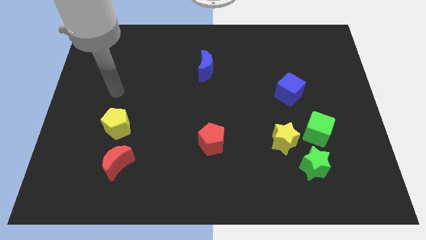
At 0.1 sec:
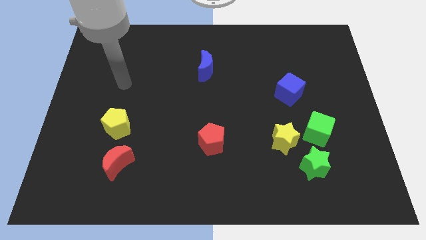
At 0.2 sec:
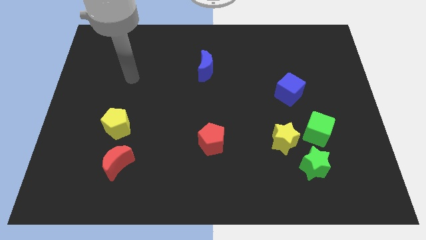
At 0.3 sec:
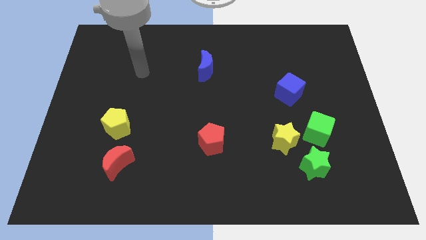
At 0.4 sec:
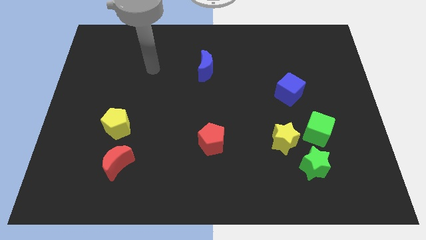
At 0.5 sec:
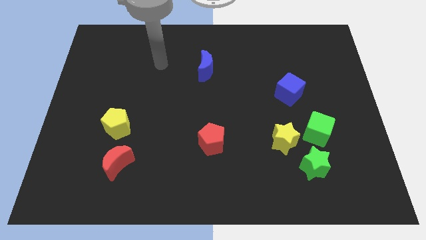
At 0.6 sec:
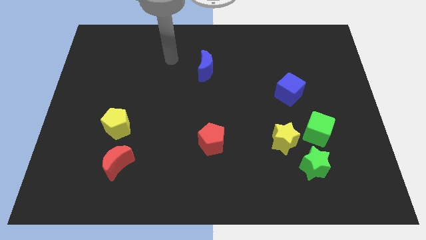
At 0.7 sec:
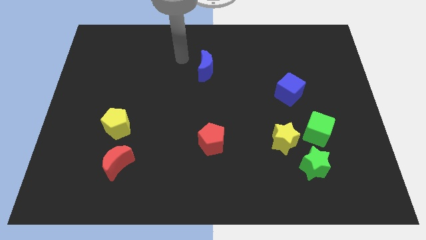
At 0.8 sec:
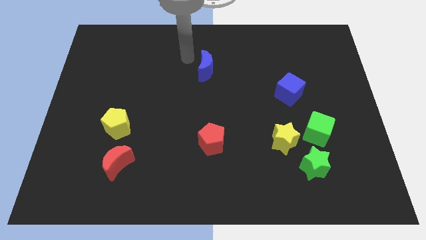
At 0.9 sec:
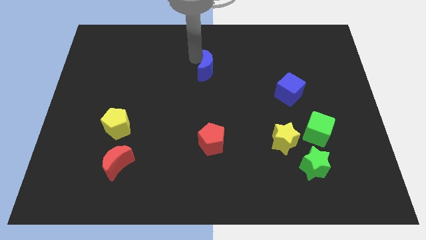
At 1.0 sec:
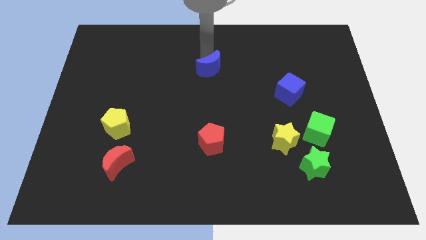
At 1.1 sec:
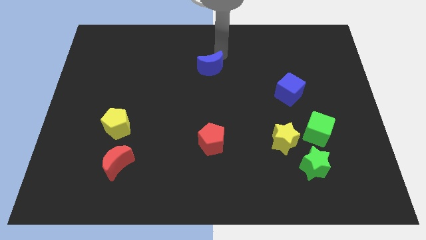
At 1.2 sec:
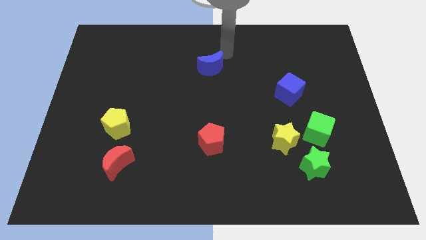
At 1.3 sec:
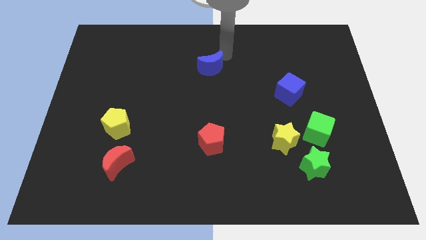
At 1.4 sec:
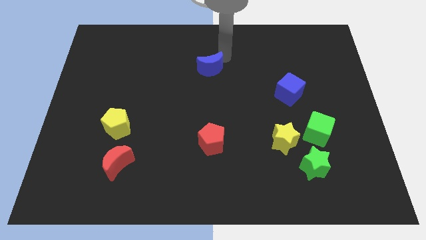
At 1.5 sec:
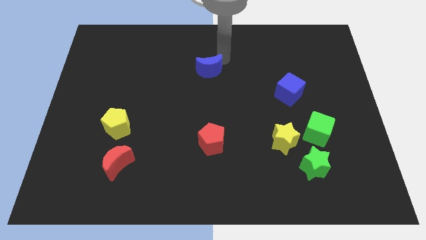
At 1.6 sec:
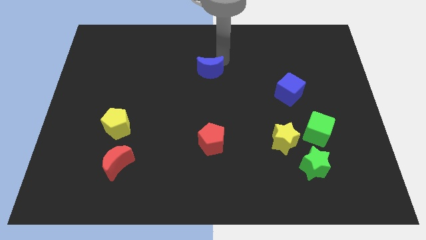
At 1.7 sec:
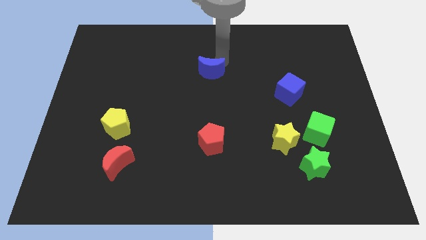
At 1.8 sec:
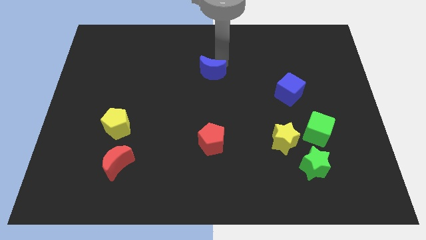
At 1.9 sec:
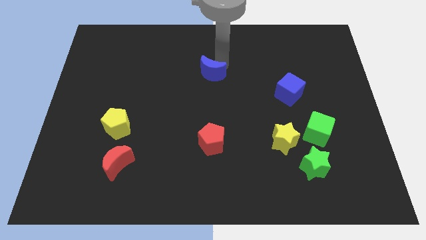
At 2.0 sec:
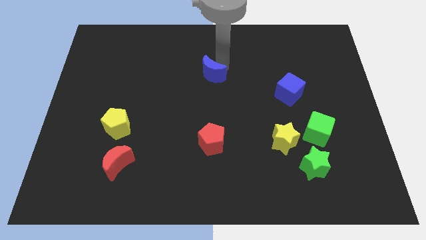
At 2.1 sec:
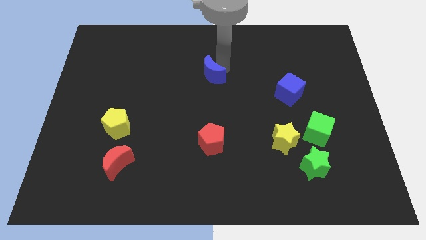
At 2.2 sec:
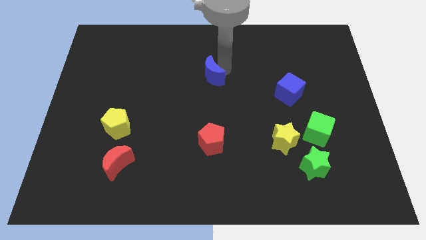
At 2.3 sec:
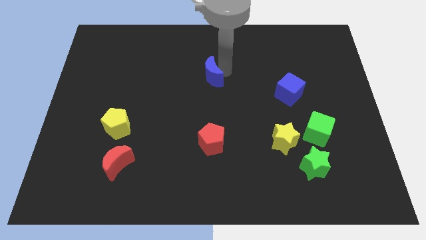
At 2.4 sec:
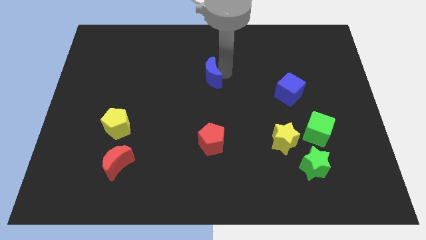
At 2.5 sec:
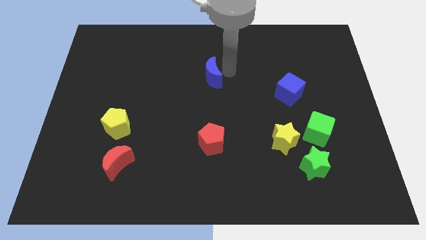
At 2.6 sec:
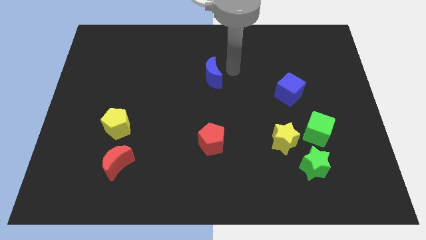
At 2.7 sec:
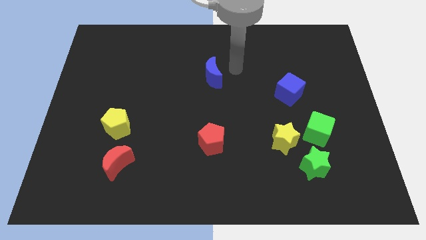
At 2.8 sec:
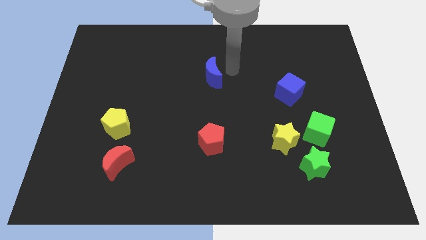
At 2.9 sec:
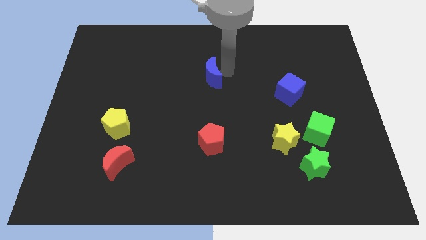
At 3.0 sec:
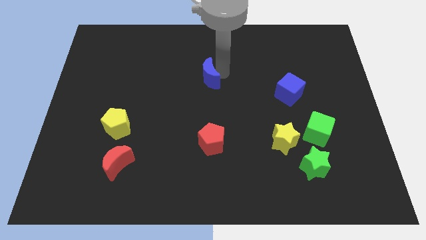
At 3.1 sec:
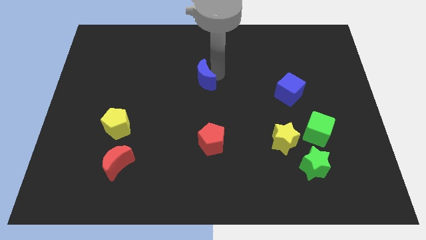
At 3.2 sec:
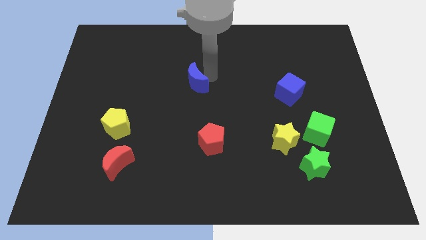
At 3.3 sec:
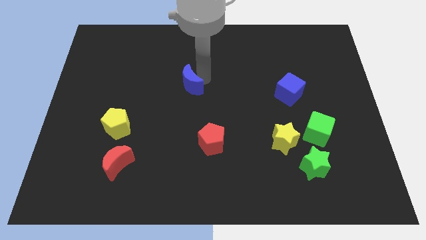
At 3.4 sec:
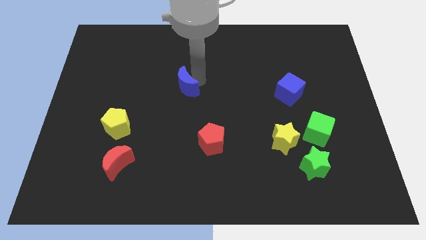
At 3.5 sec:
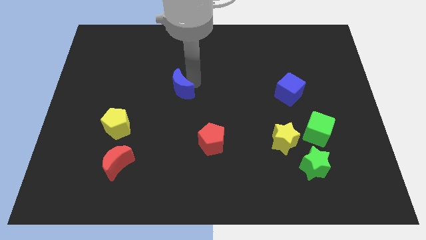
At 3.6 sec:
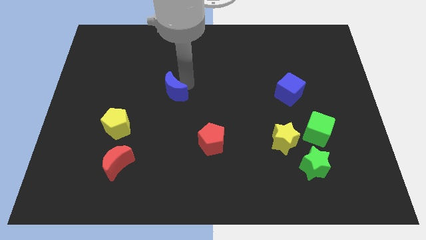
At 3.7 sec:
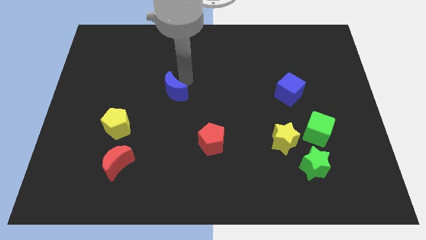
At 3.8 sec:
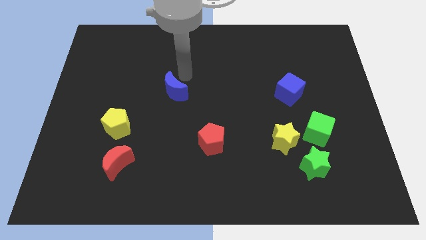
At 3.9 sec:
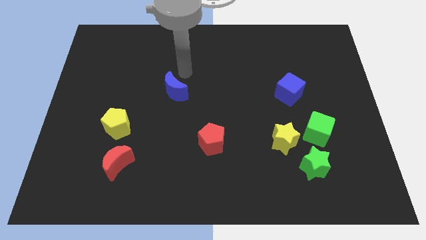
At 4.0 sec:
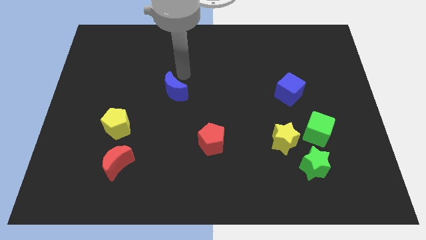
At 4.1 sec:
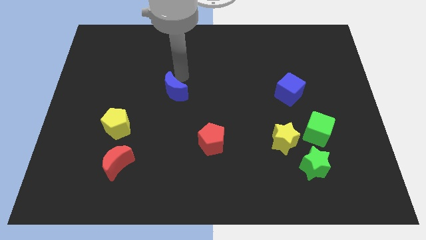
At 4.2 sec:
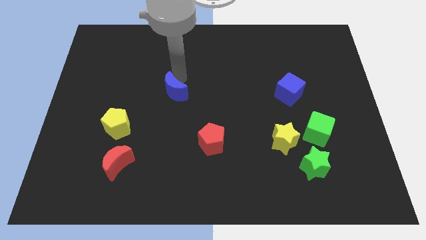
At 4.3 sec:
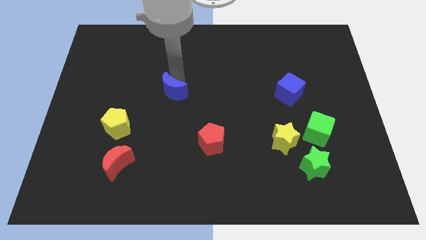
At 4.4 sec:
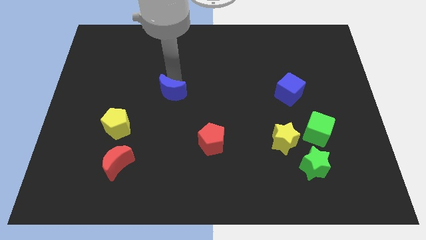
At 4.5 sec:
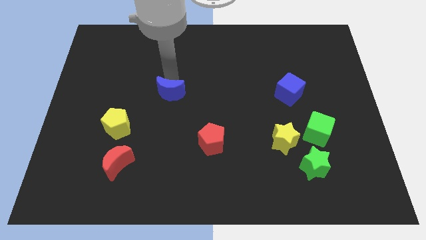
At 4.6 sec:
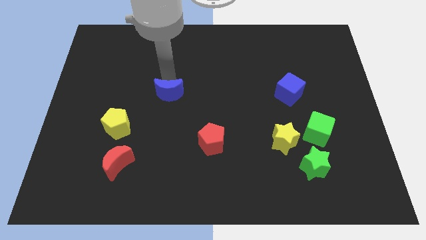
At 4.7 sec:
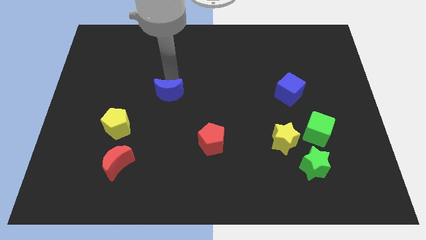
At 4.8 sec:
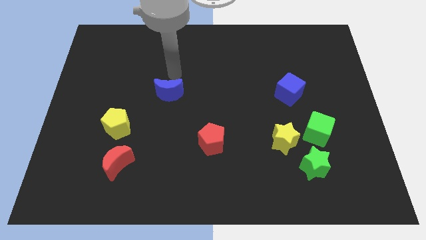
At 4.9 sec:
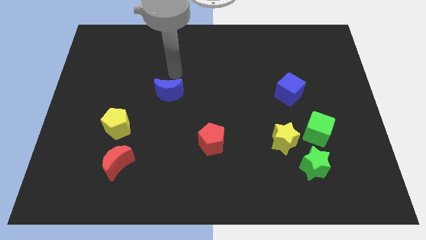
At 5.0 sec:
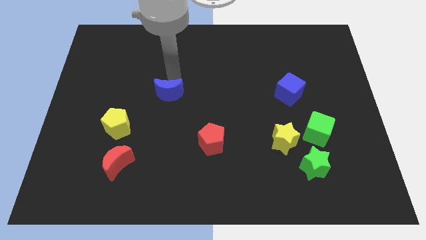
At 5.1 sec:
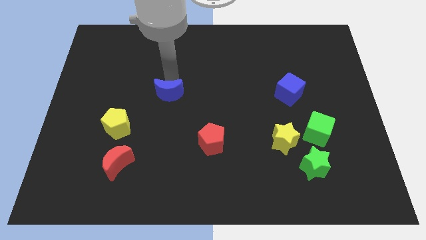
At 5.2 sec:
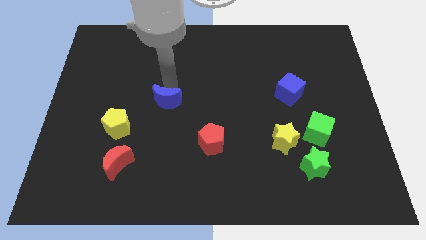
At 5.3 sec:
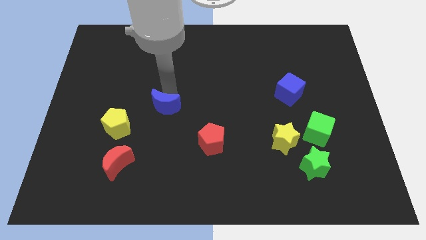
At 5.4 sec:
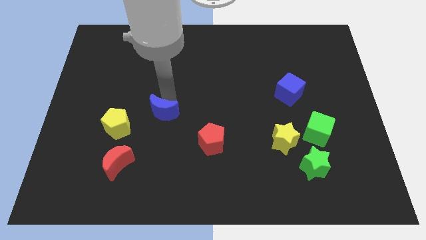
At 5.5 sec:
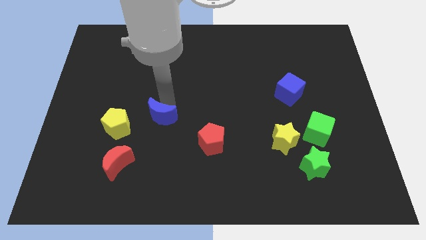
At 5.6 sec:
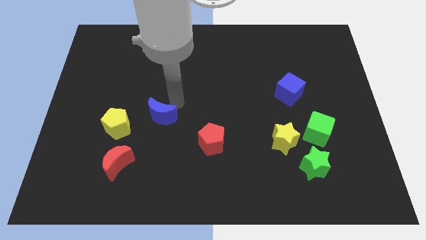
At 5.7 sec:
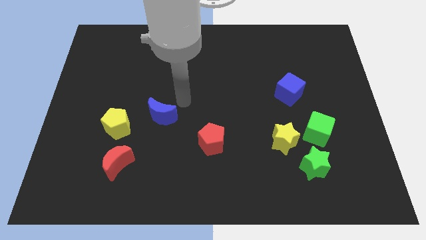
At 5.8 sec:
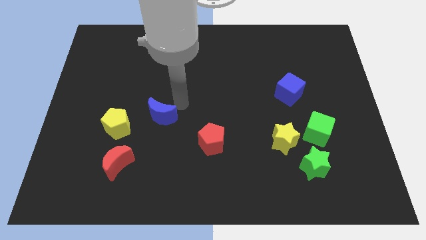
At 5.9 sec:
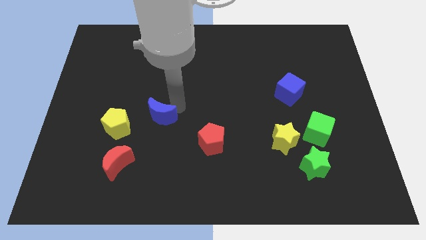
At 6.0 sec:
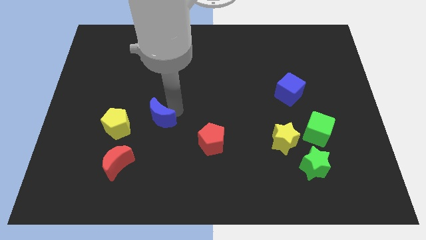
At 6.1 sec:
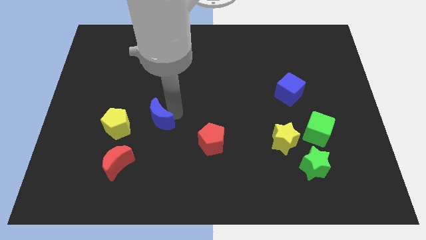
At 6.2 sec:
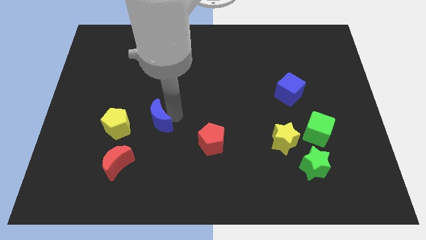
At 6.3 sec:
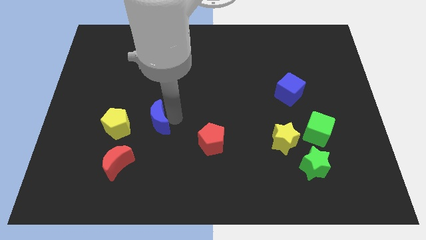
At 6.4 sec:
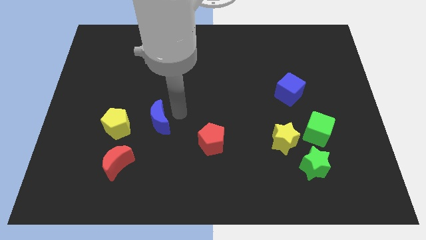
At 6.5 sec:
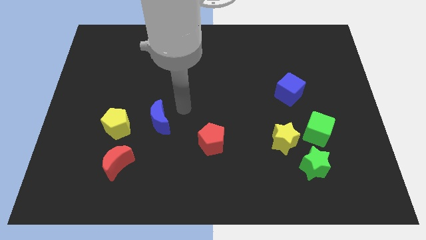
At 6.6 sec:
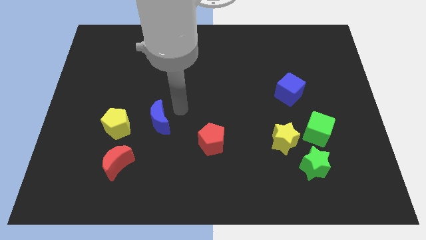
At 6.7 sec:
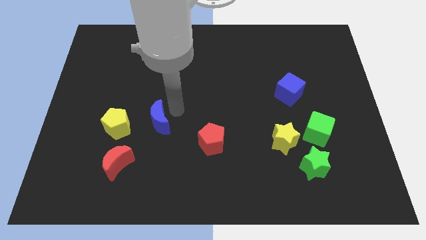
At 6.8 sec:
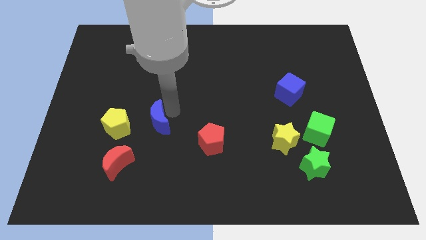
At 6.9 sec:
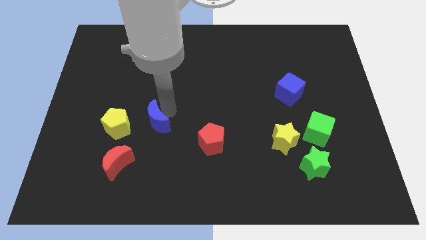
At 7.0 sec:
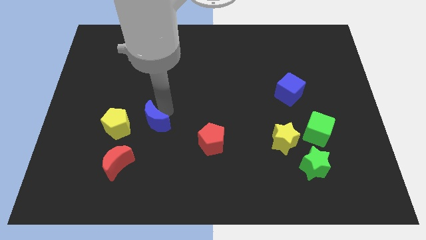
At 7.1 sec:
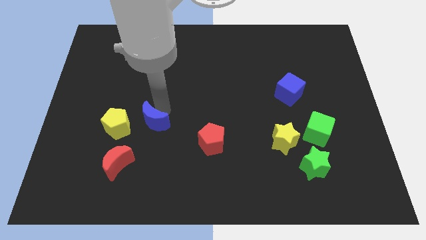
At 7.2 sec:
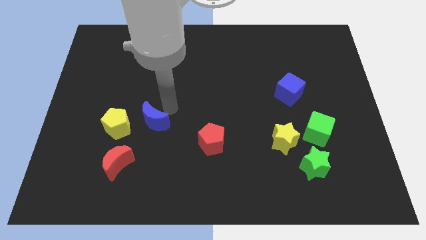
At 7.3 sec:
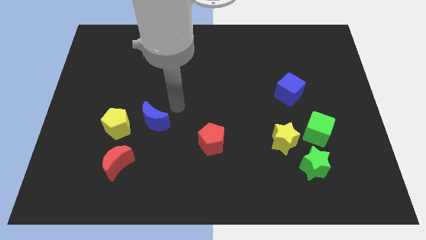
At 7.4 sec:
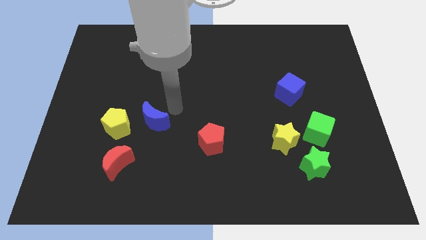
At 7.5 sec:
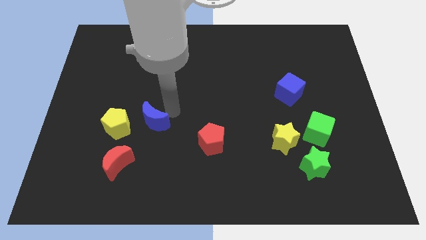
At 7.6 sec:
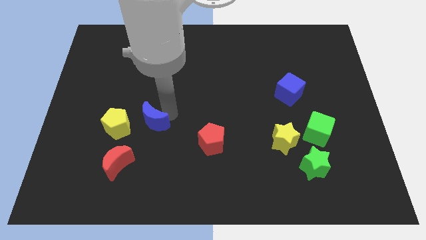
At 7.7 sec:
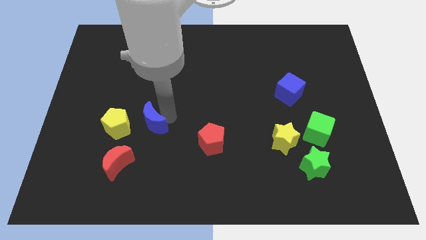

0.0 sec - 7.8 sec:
move the blue moon downwards and left diagonally

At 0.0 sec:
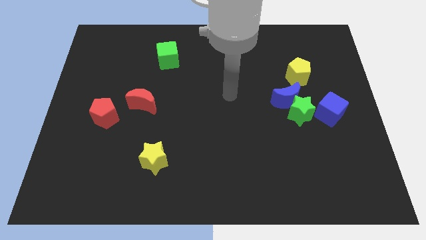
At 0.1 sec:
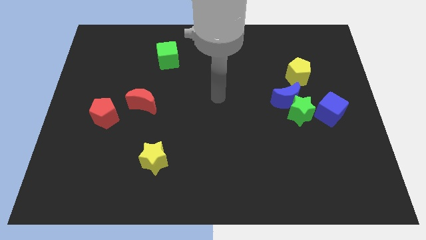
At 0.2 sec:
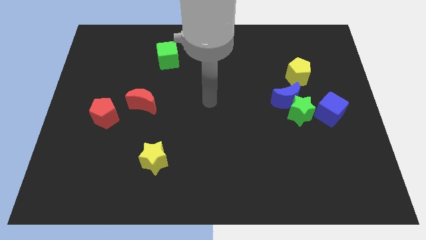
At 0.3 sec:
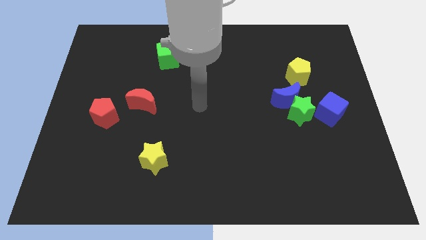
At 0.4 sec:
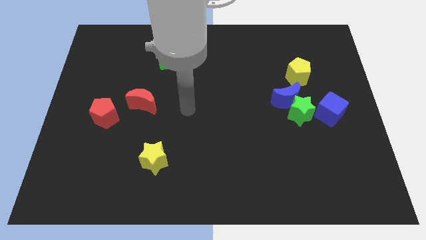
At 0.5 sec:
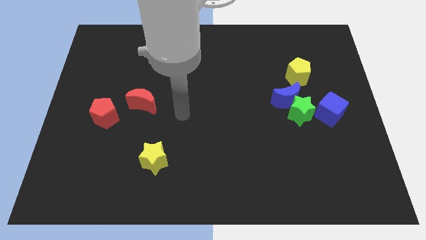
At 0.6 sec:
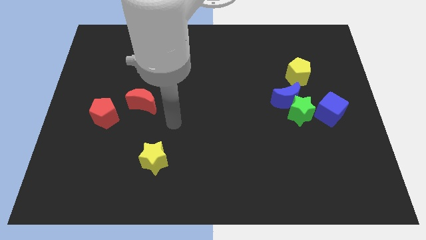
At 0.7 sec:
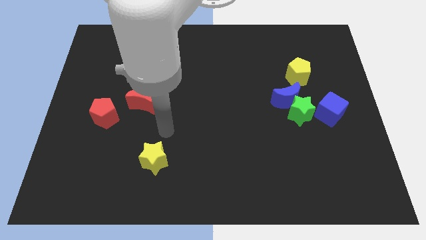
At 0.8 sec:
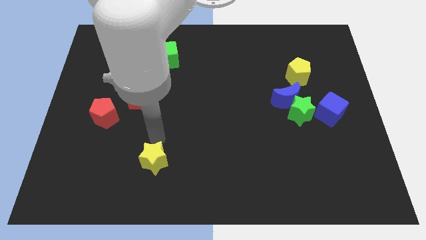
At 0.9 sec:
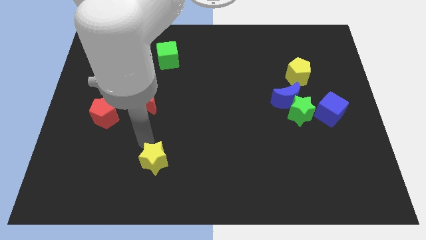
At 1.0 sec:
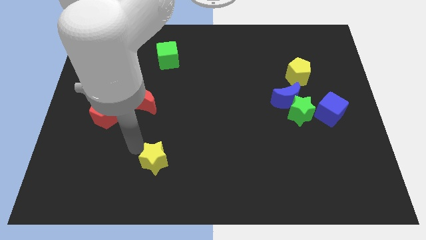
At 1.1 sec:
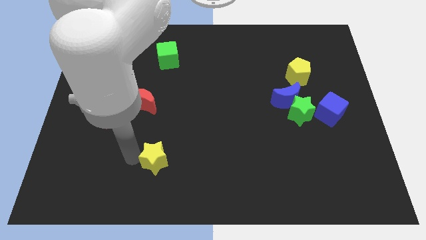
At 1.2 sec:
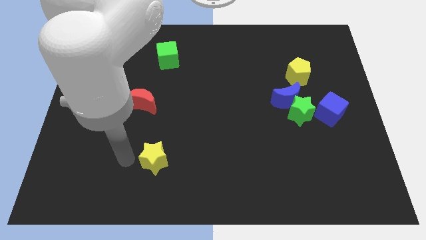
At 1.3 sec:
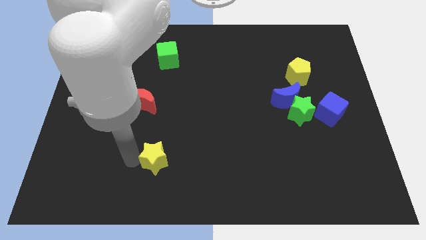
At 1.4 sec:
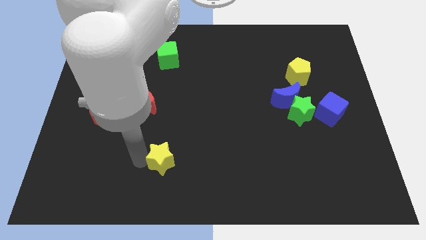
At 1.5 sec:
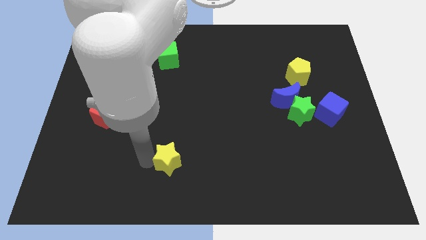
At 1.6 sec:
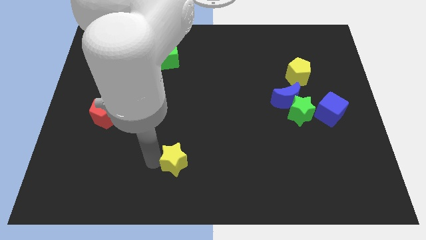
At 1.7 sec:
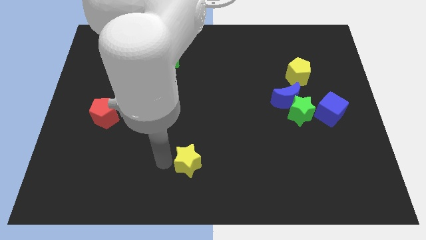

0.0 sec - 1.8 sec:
push the yellow star a little right
